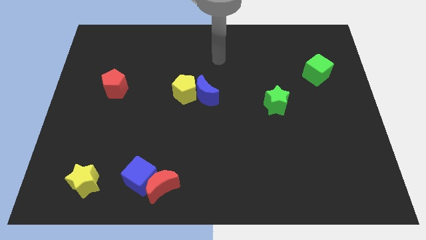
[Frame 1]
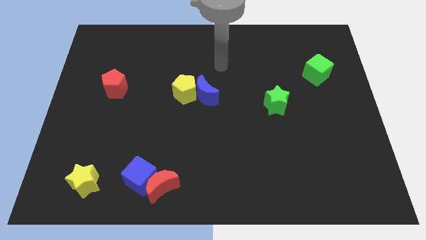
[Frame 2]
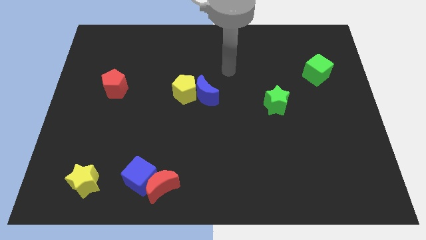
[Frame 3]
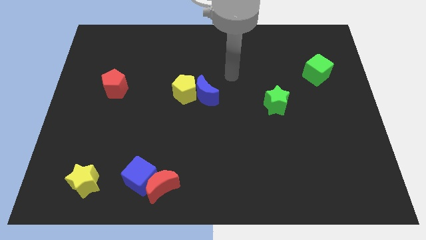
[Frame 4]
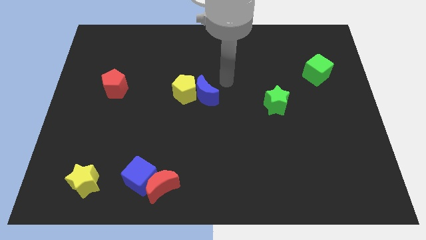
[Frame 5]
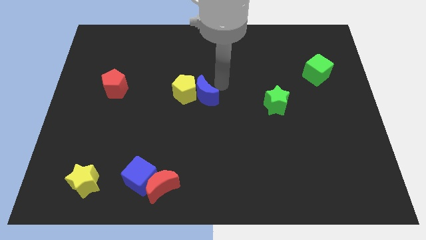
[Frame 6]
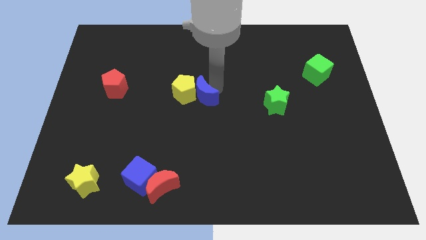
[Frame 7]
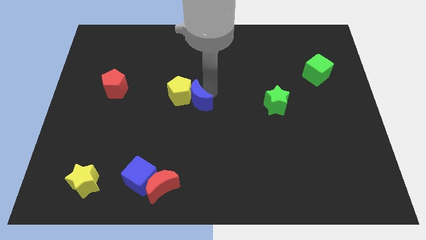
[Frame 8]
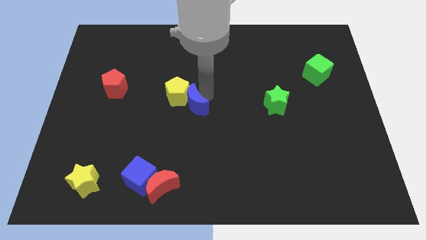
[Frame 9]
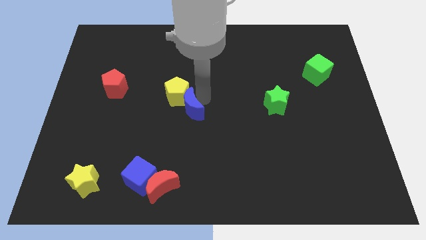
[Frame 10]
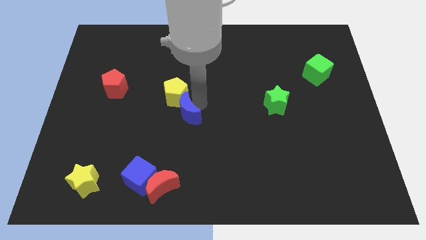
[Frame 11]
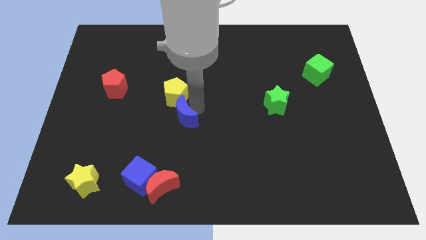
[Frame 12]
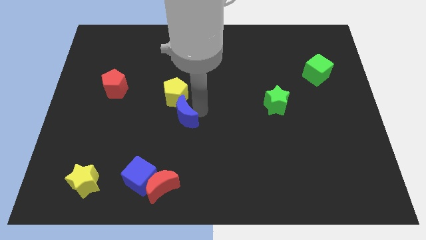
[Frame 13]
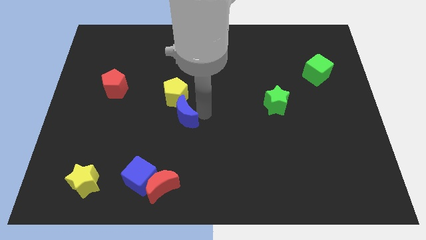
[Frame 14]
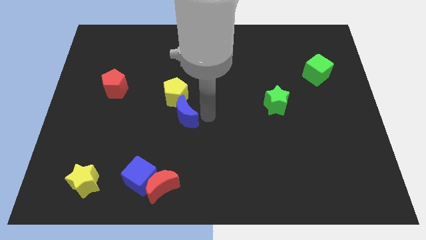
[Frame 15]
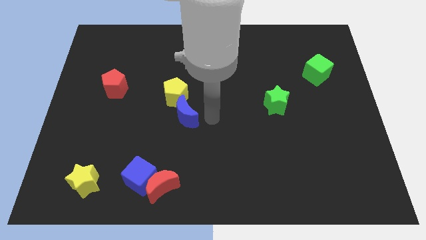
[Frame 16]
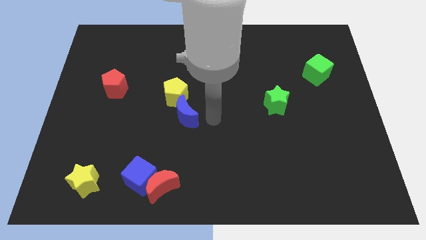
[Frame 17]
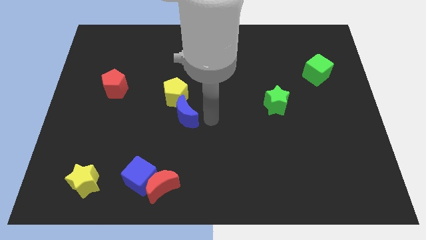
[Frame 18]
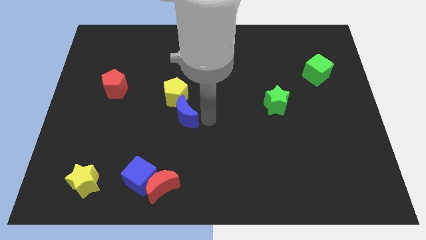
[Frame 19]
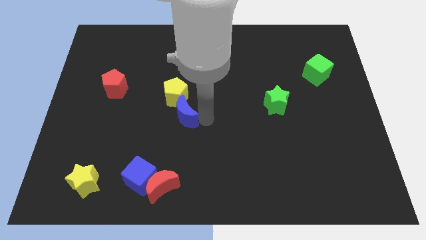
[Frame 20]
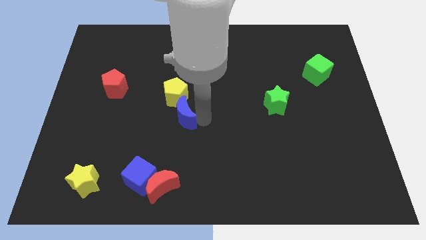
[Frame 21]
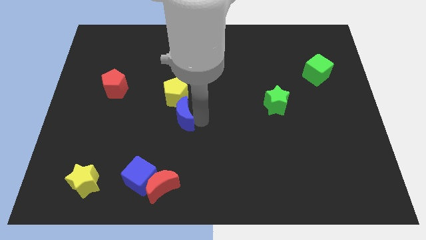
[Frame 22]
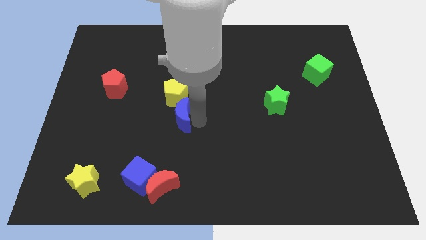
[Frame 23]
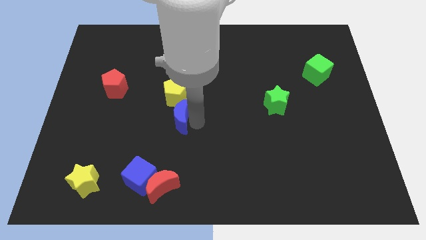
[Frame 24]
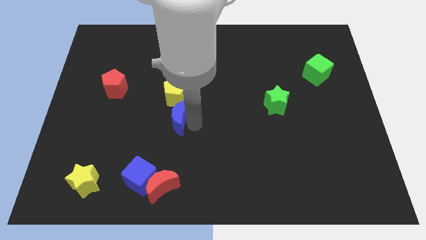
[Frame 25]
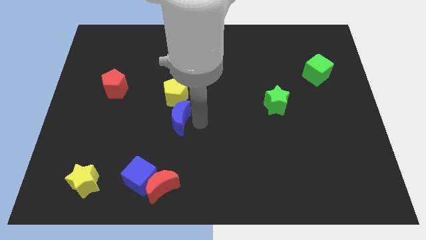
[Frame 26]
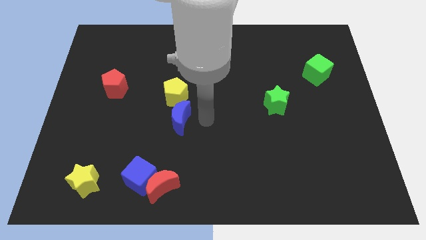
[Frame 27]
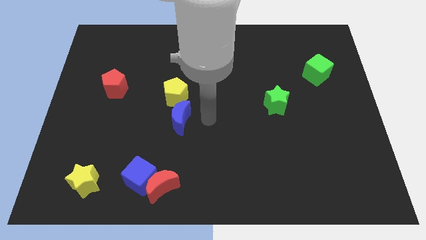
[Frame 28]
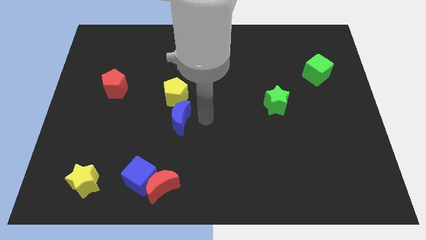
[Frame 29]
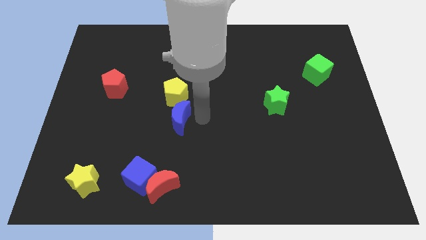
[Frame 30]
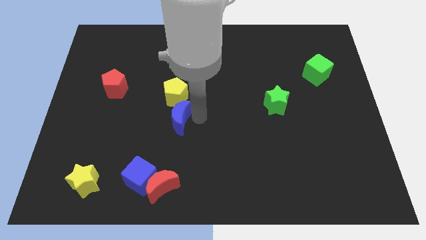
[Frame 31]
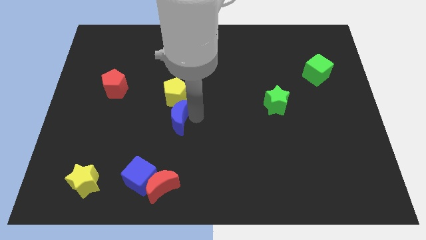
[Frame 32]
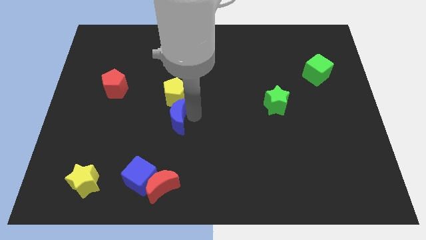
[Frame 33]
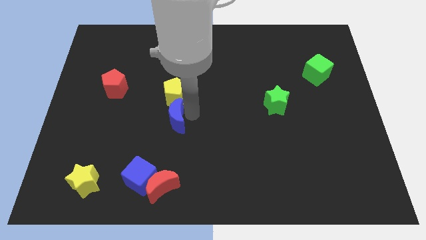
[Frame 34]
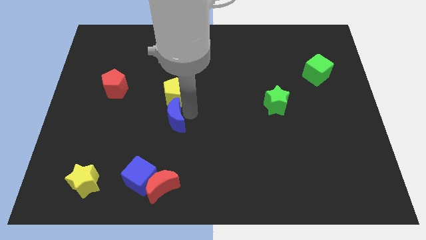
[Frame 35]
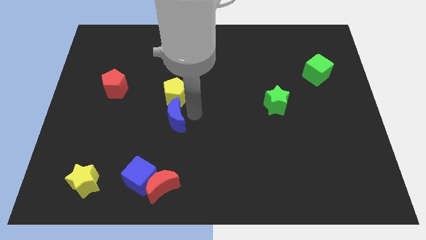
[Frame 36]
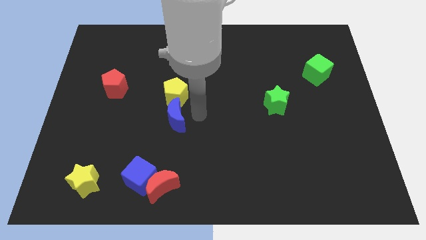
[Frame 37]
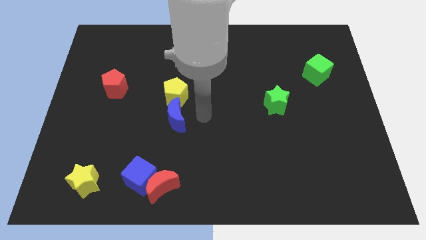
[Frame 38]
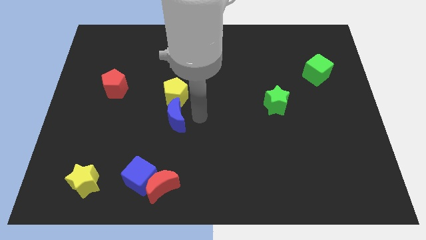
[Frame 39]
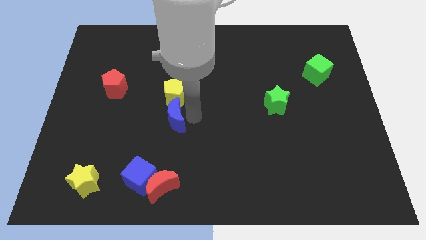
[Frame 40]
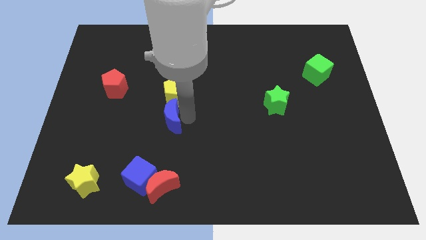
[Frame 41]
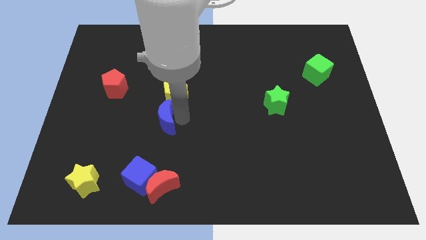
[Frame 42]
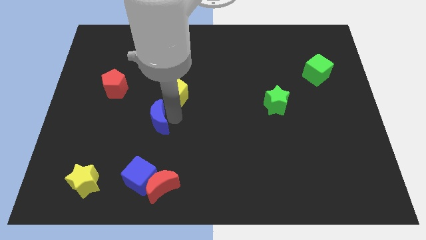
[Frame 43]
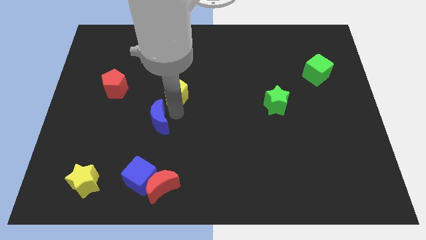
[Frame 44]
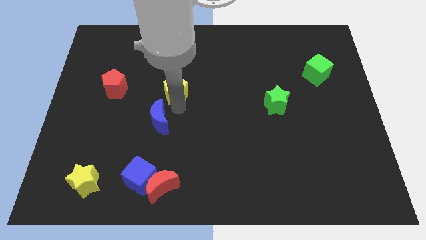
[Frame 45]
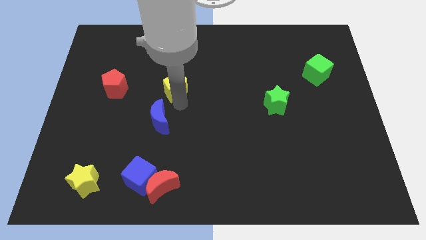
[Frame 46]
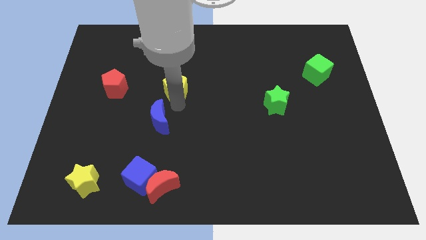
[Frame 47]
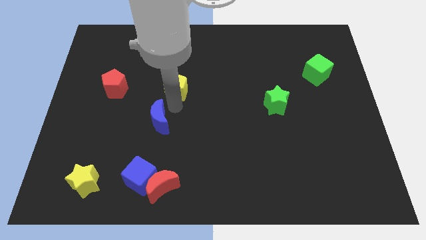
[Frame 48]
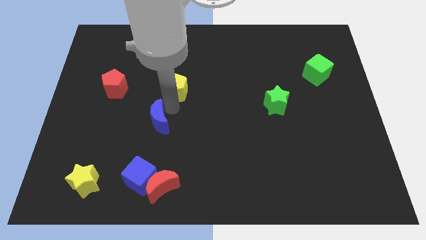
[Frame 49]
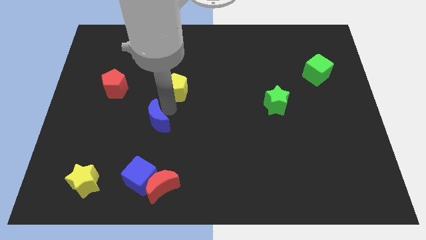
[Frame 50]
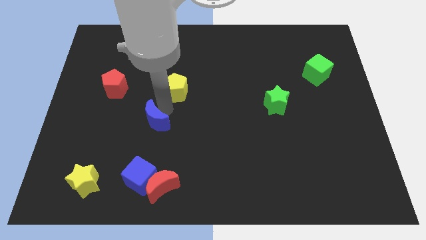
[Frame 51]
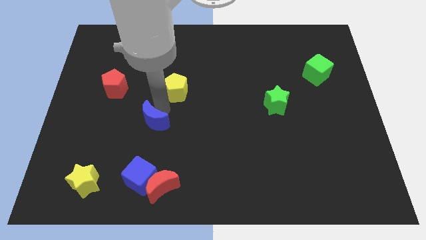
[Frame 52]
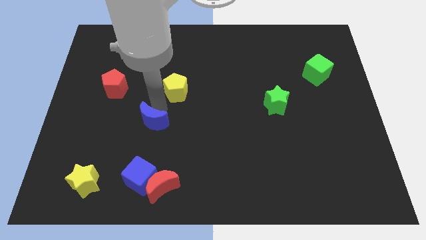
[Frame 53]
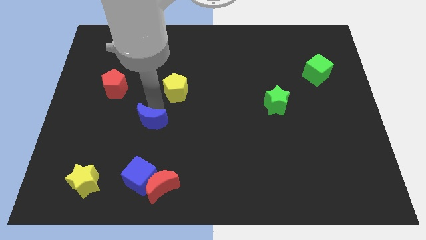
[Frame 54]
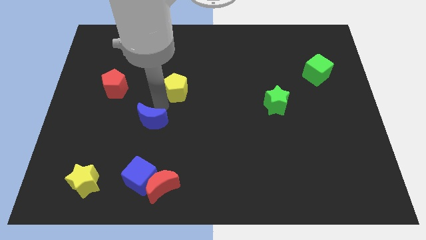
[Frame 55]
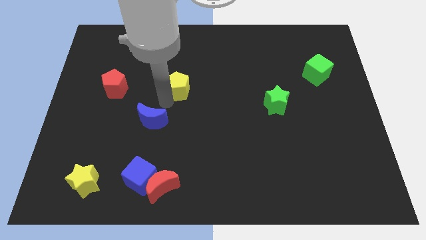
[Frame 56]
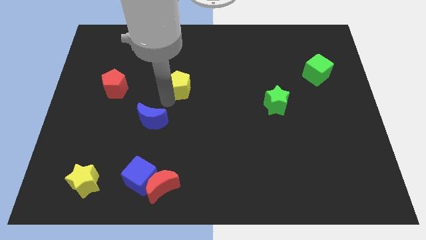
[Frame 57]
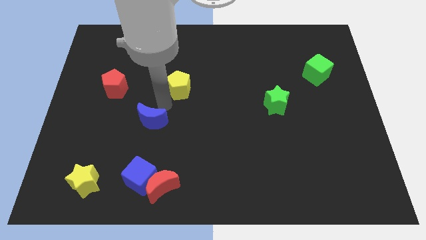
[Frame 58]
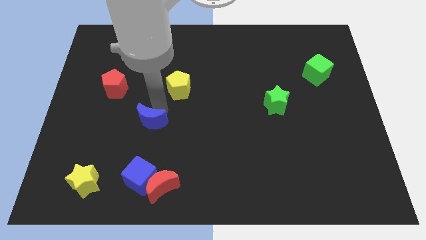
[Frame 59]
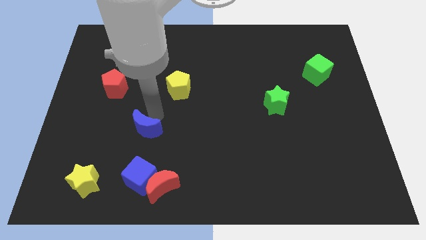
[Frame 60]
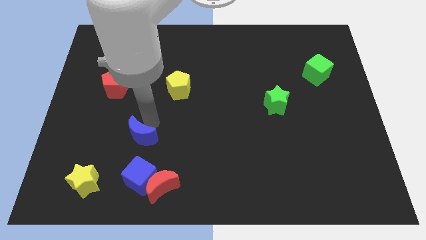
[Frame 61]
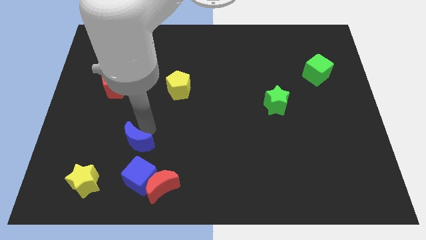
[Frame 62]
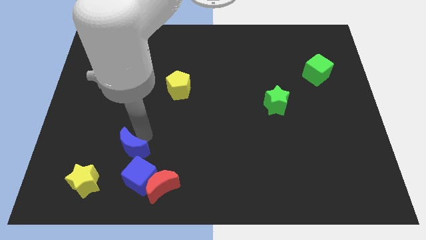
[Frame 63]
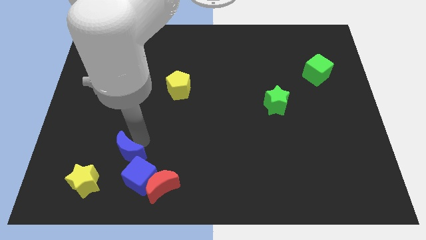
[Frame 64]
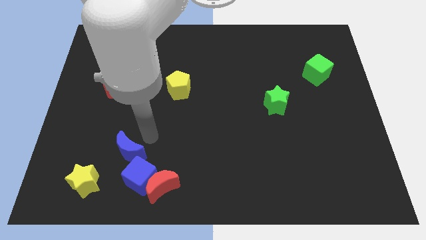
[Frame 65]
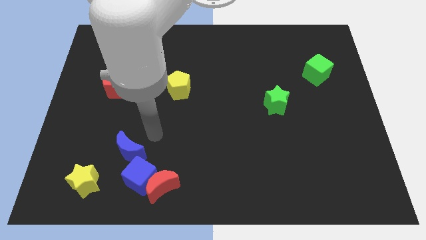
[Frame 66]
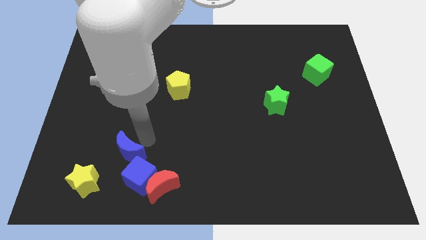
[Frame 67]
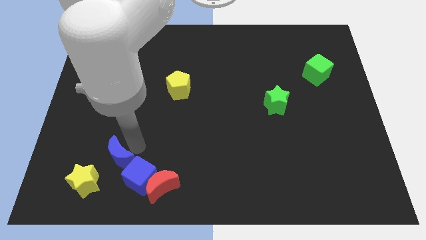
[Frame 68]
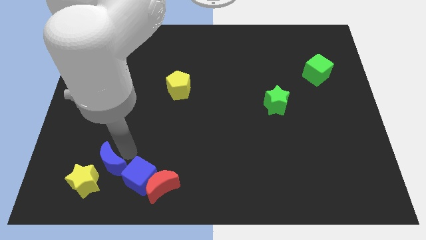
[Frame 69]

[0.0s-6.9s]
move the blue moon towards the yellow star

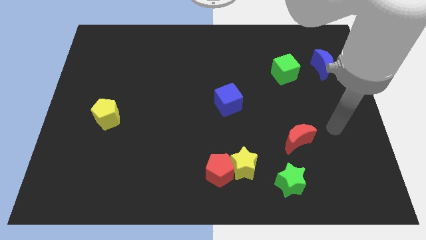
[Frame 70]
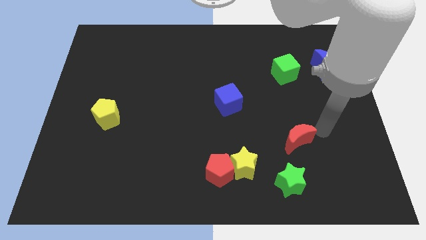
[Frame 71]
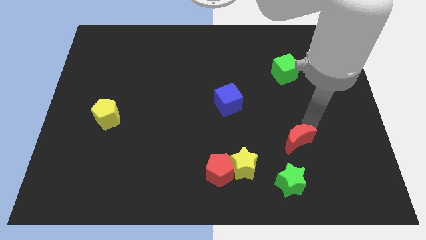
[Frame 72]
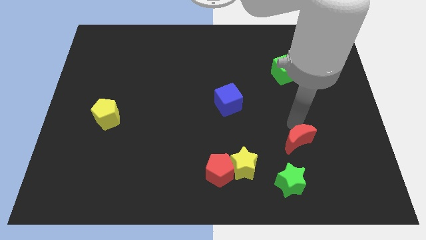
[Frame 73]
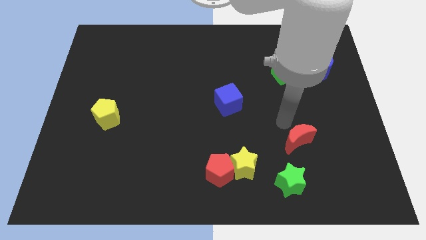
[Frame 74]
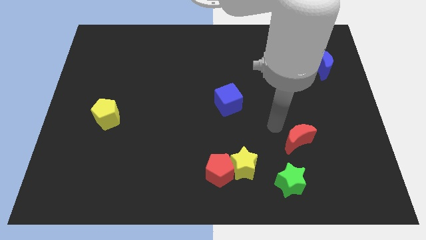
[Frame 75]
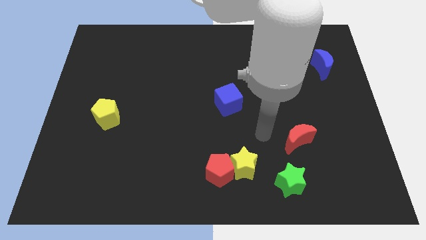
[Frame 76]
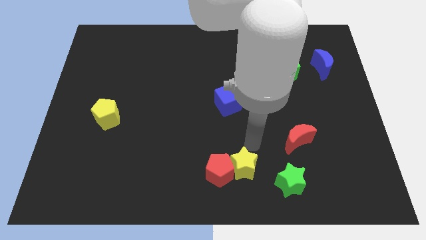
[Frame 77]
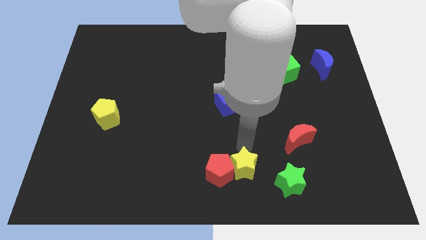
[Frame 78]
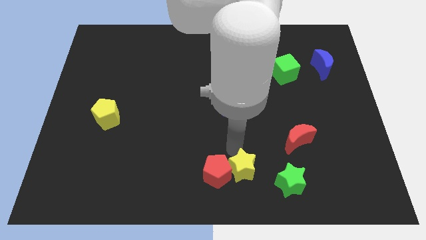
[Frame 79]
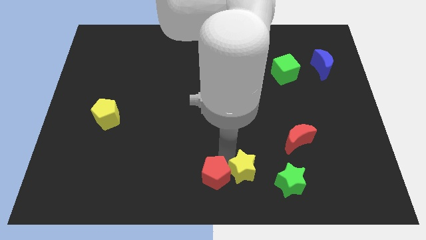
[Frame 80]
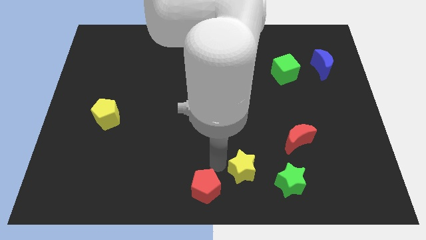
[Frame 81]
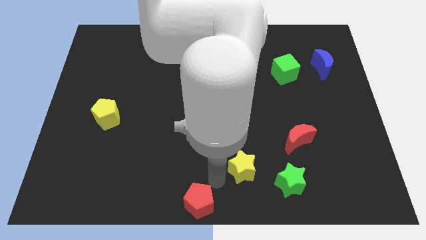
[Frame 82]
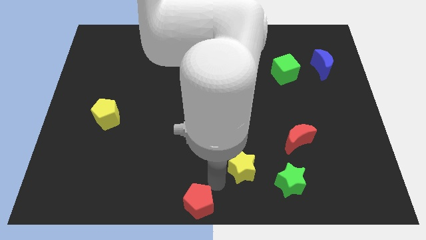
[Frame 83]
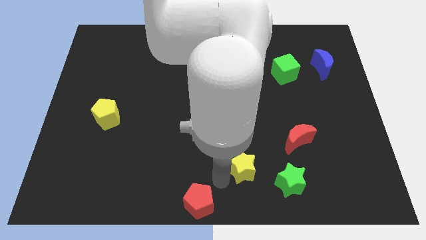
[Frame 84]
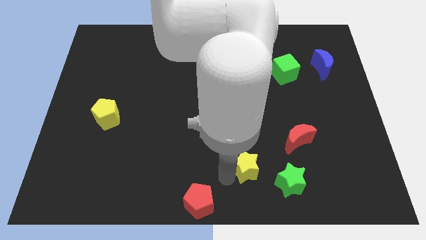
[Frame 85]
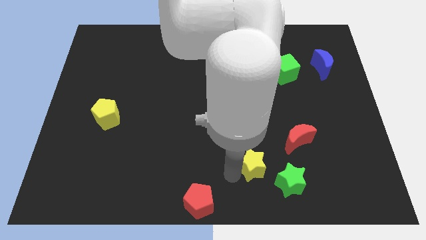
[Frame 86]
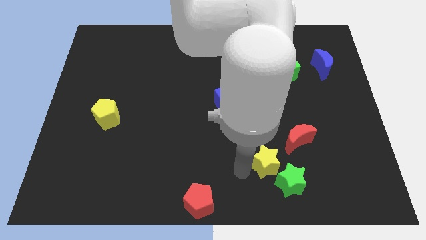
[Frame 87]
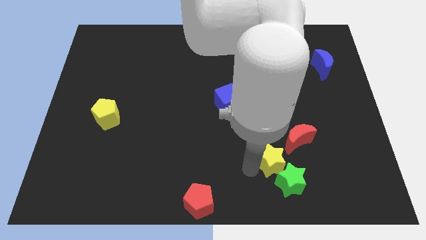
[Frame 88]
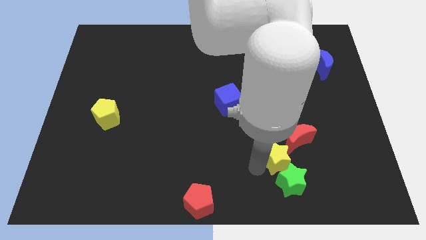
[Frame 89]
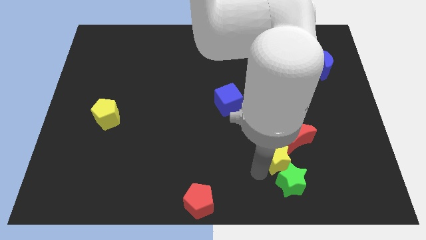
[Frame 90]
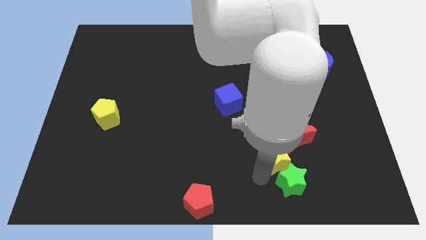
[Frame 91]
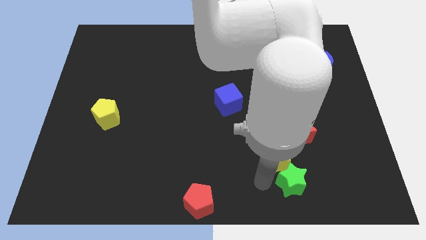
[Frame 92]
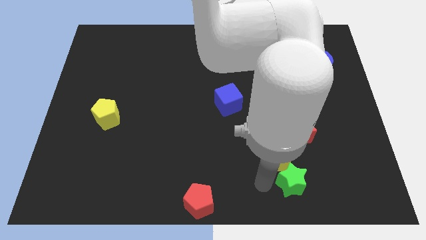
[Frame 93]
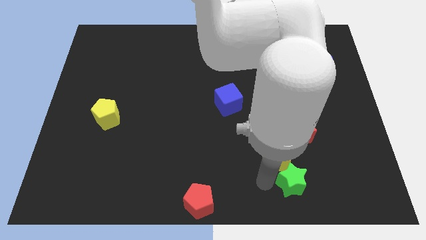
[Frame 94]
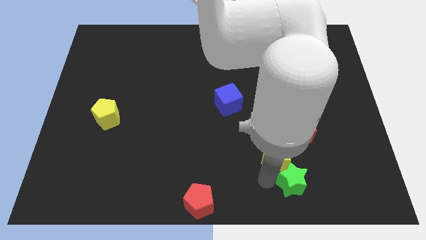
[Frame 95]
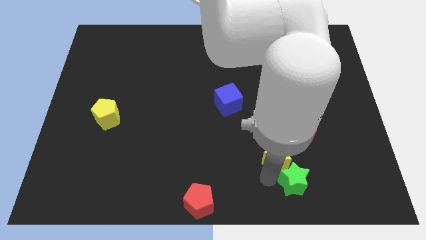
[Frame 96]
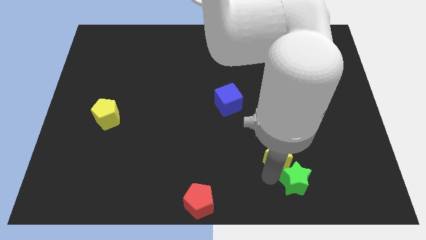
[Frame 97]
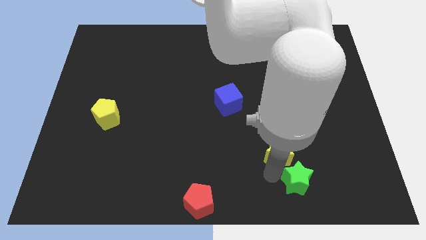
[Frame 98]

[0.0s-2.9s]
put the yellow star towards the red moon
